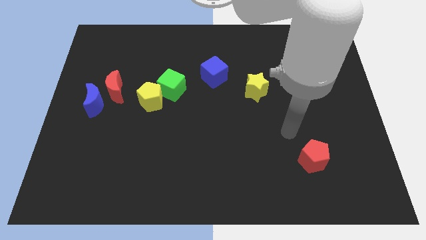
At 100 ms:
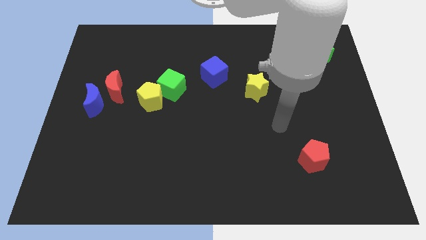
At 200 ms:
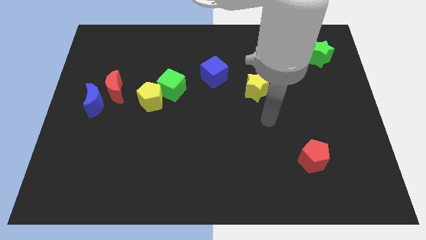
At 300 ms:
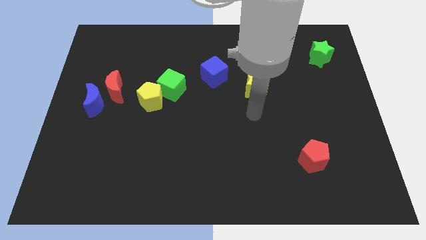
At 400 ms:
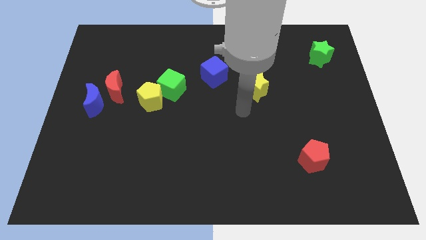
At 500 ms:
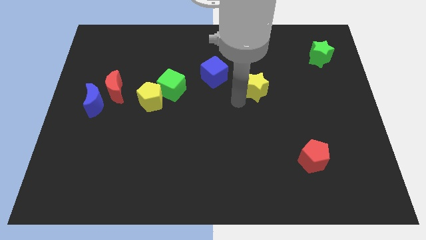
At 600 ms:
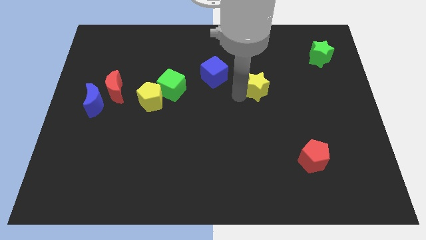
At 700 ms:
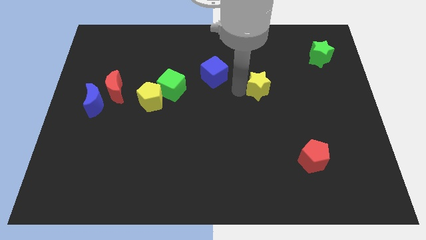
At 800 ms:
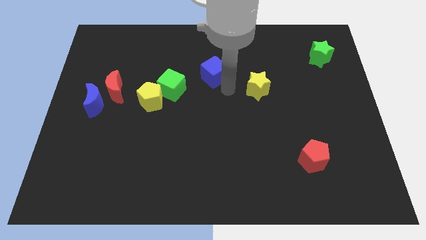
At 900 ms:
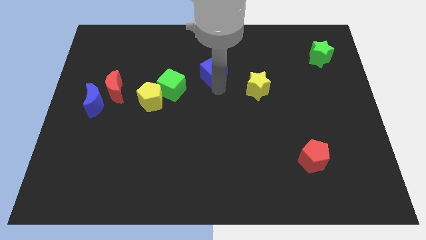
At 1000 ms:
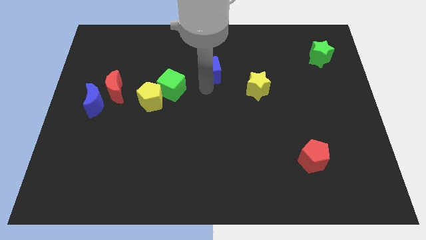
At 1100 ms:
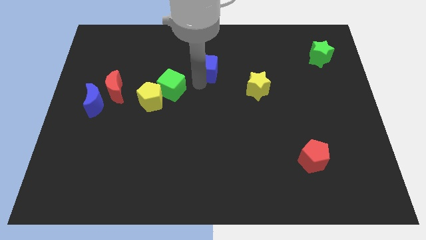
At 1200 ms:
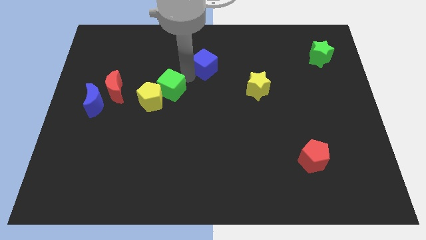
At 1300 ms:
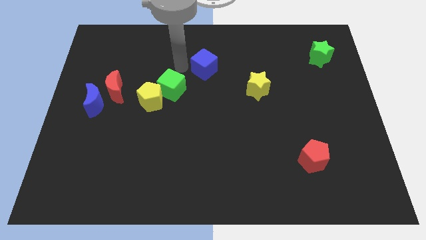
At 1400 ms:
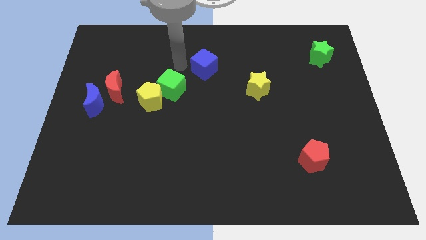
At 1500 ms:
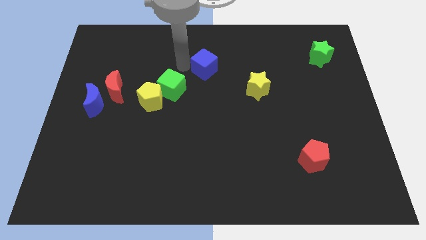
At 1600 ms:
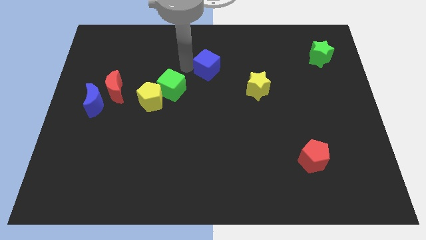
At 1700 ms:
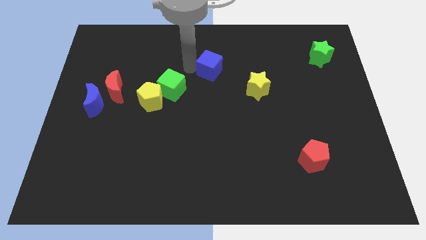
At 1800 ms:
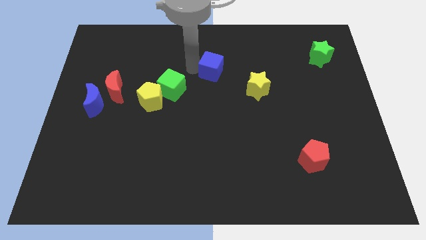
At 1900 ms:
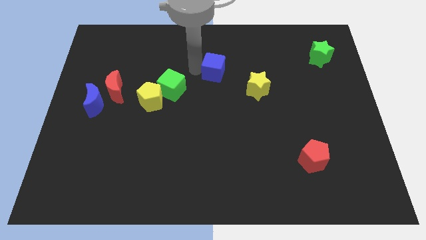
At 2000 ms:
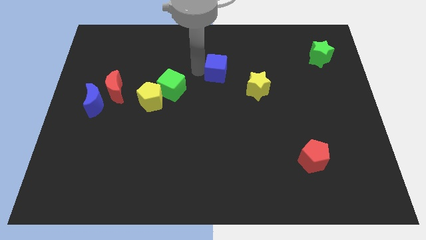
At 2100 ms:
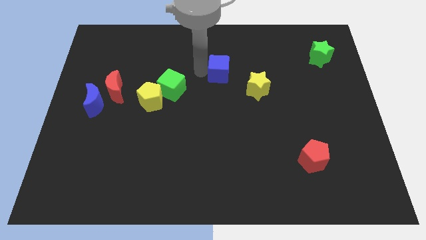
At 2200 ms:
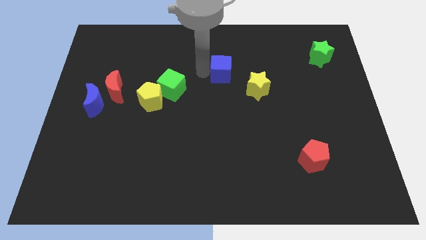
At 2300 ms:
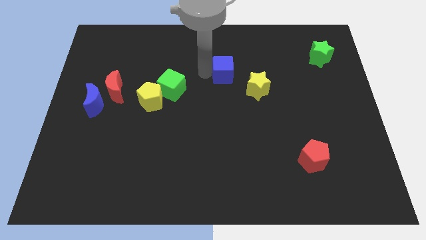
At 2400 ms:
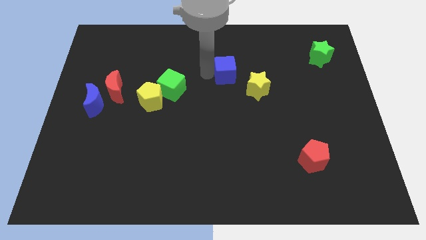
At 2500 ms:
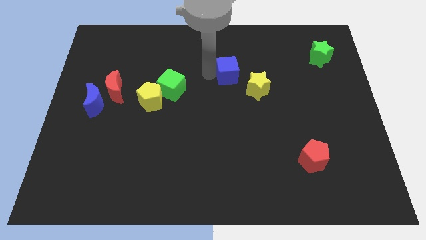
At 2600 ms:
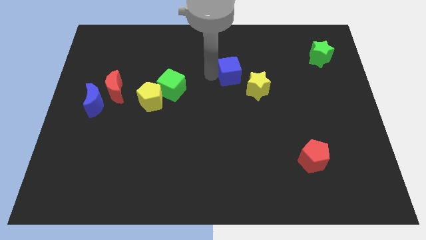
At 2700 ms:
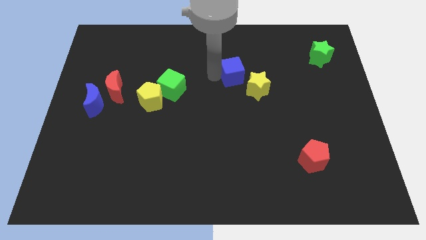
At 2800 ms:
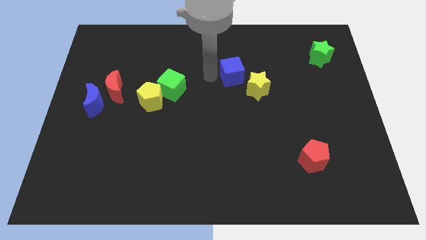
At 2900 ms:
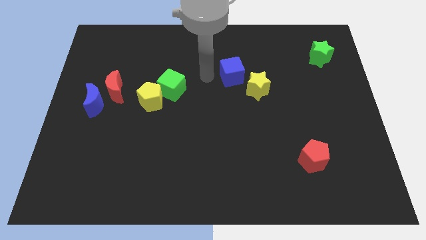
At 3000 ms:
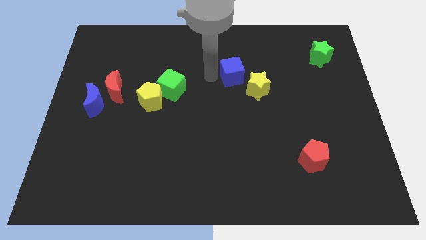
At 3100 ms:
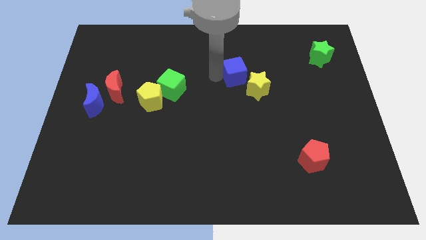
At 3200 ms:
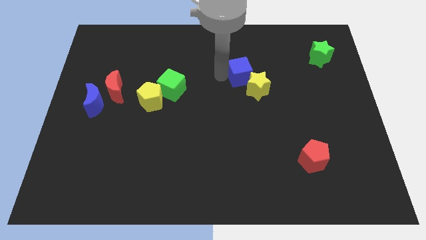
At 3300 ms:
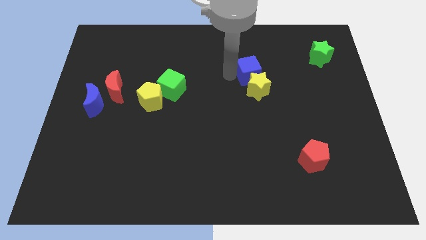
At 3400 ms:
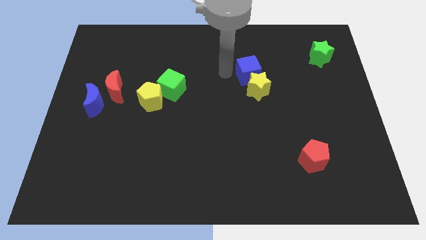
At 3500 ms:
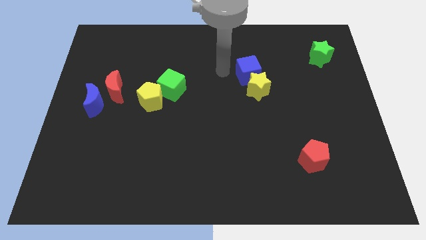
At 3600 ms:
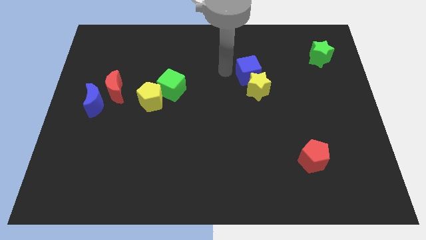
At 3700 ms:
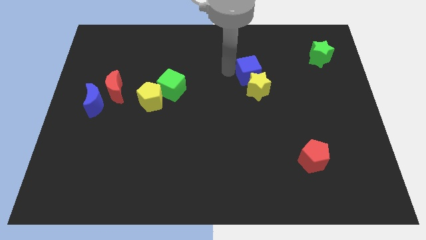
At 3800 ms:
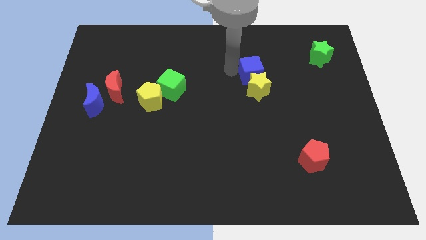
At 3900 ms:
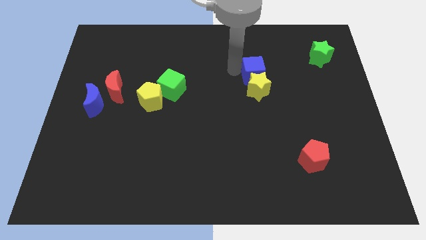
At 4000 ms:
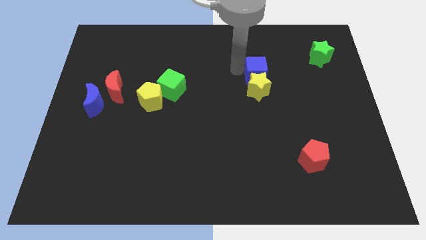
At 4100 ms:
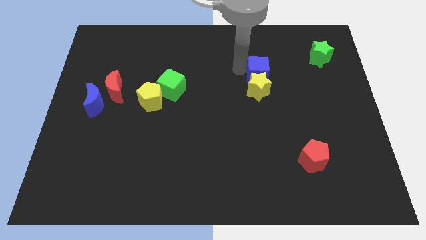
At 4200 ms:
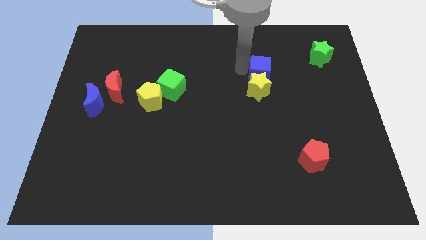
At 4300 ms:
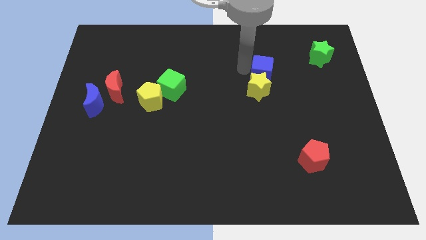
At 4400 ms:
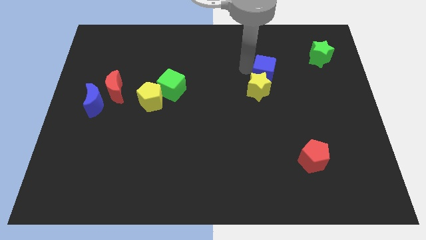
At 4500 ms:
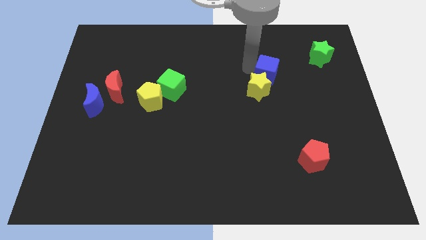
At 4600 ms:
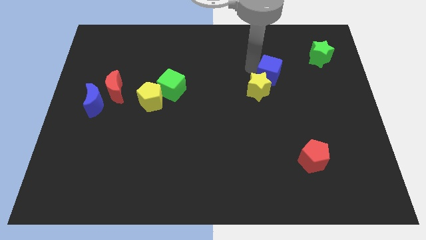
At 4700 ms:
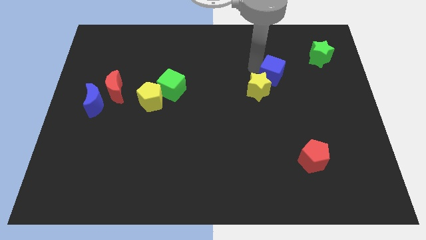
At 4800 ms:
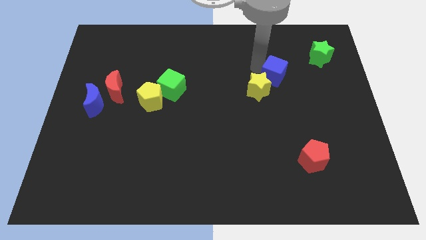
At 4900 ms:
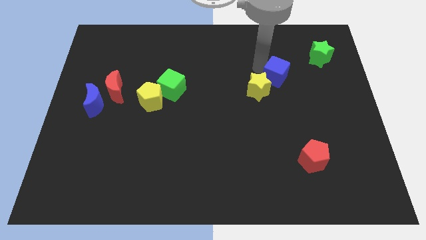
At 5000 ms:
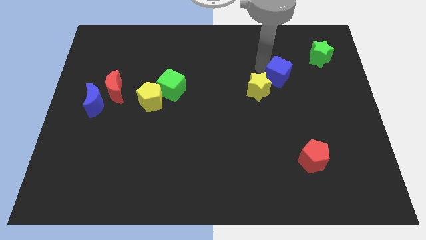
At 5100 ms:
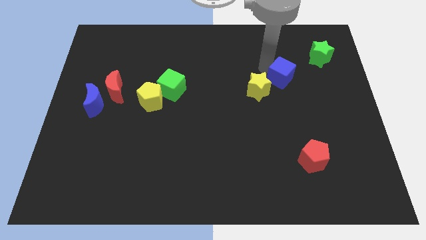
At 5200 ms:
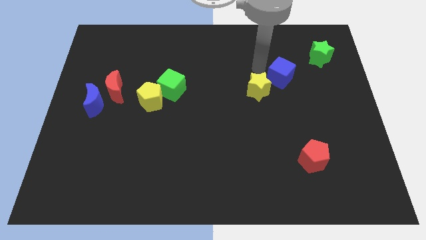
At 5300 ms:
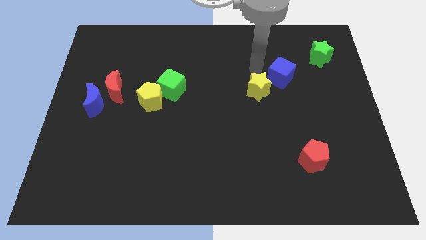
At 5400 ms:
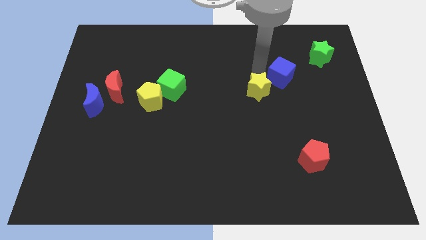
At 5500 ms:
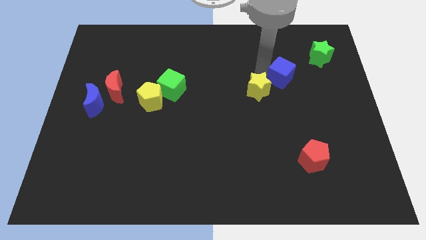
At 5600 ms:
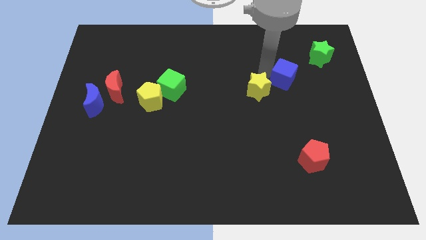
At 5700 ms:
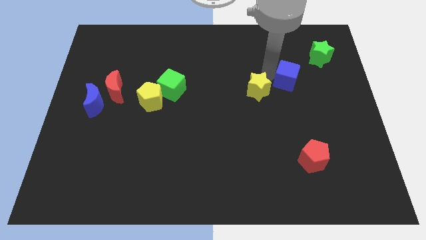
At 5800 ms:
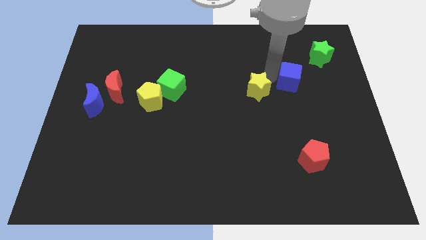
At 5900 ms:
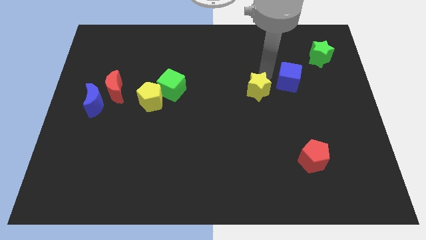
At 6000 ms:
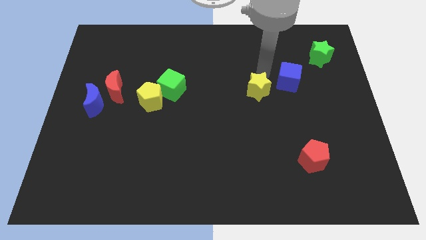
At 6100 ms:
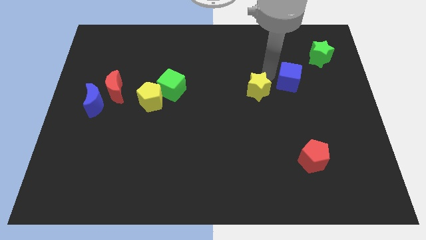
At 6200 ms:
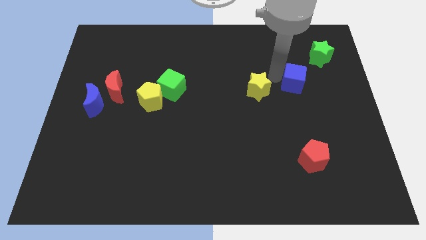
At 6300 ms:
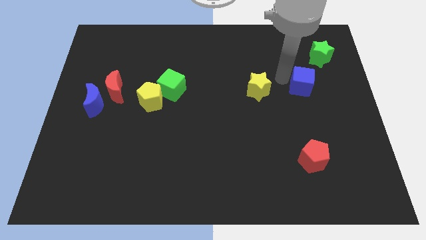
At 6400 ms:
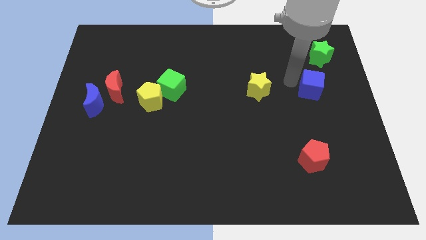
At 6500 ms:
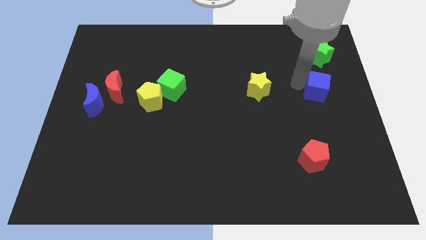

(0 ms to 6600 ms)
put the blue cube to the right side of the board

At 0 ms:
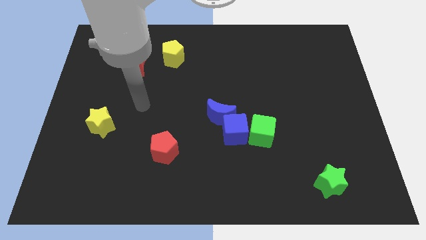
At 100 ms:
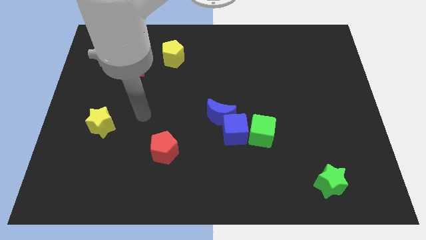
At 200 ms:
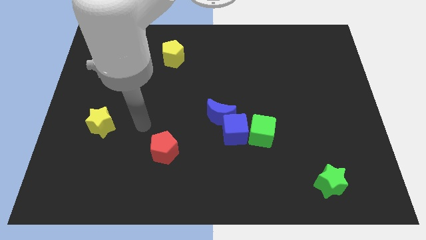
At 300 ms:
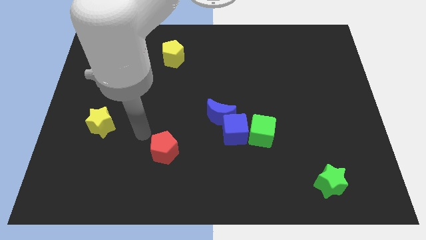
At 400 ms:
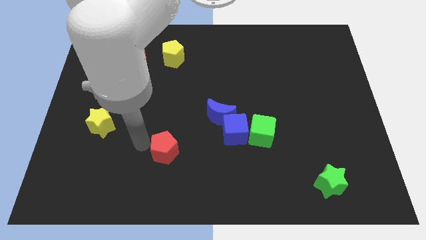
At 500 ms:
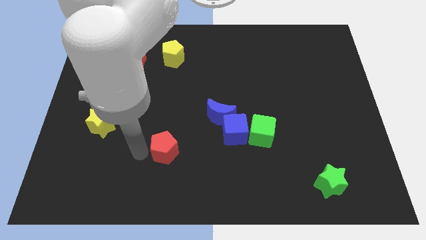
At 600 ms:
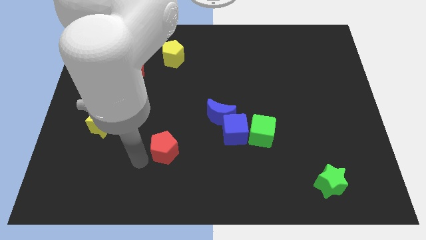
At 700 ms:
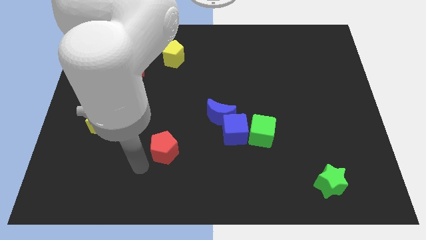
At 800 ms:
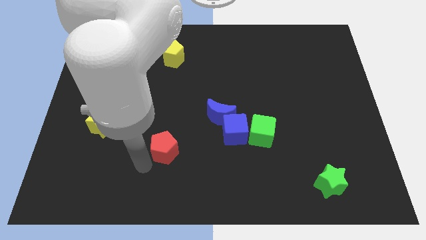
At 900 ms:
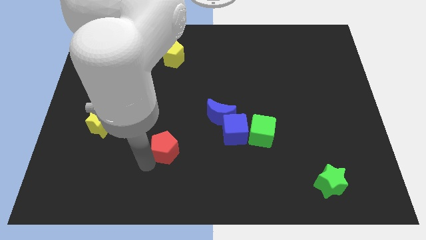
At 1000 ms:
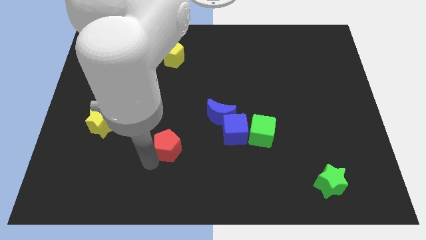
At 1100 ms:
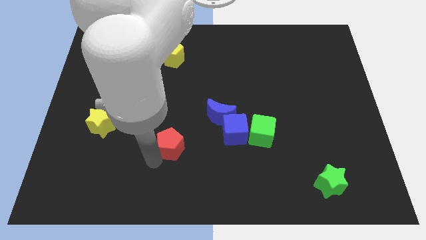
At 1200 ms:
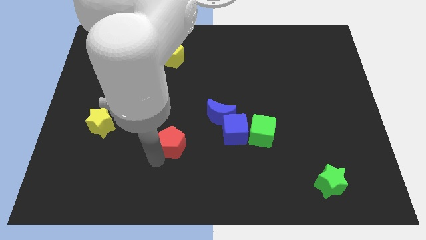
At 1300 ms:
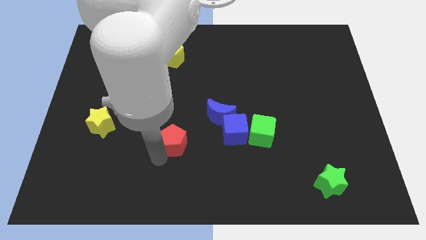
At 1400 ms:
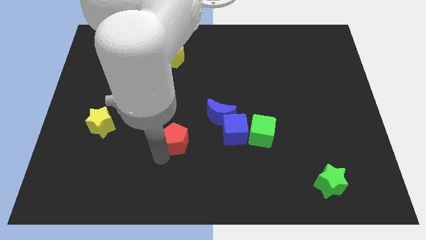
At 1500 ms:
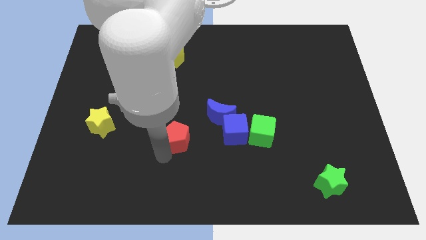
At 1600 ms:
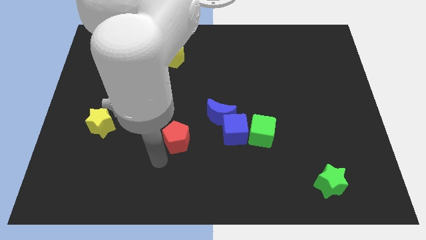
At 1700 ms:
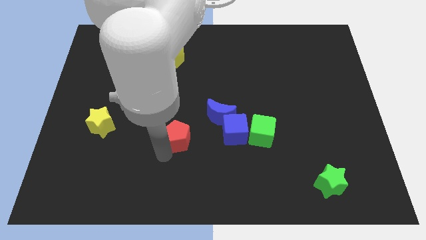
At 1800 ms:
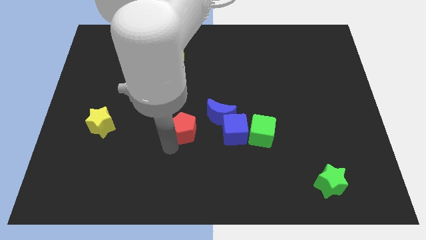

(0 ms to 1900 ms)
push the red pentagon to the center of the board
